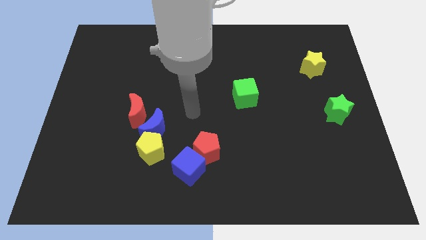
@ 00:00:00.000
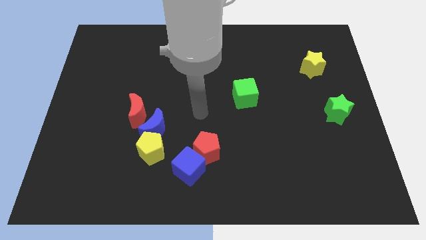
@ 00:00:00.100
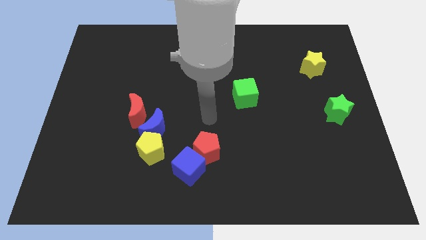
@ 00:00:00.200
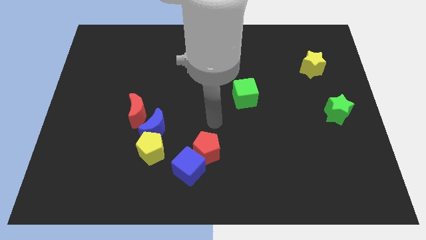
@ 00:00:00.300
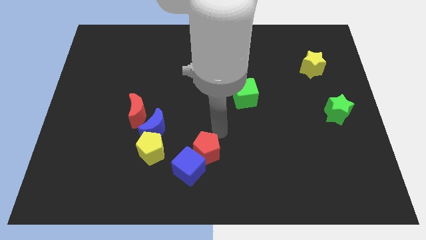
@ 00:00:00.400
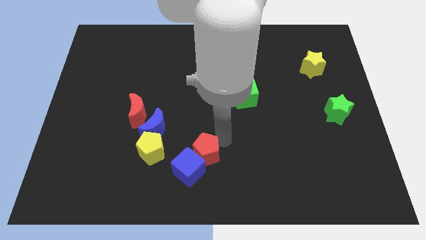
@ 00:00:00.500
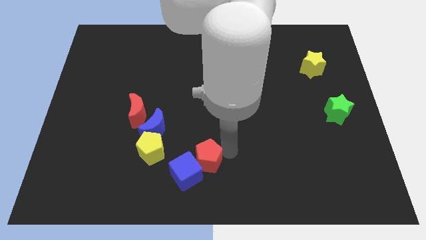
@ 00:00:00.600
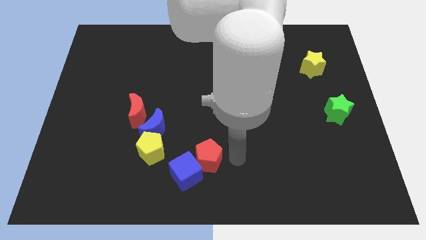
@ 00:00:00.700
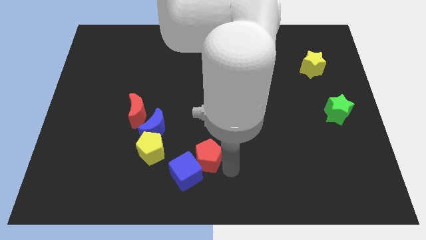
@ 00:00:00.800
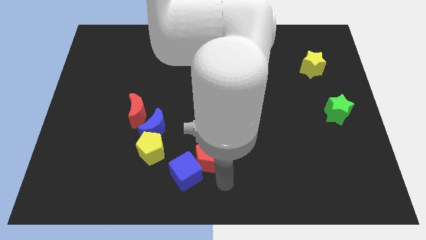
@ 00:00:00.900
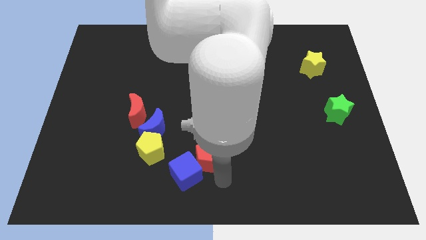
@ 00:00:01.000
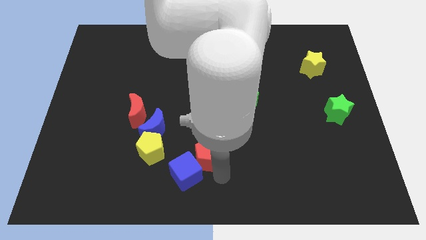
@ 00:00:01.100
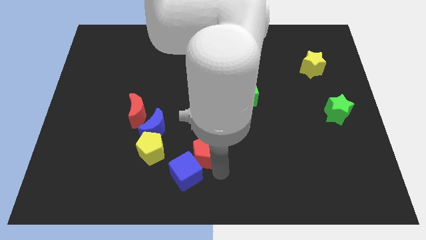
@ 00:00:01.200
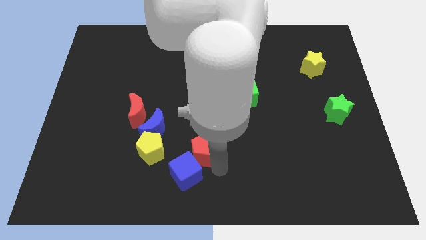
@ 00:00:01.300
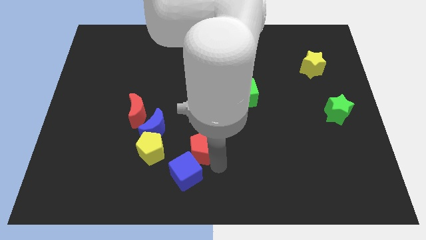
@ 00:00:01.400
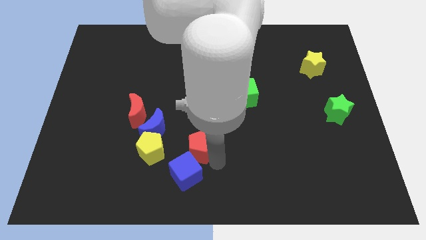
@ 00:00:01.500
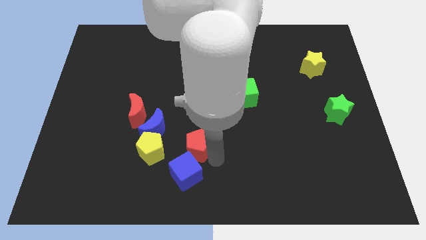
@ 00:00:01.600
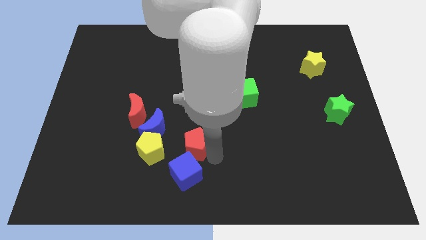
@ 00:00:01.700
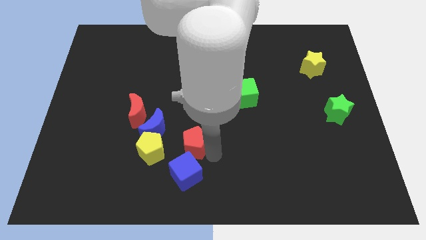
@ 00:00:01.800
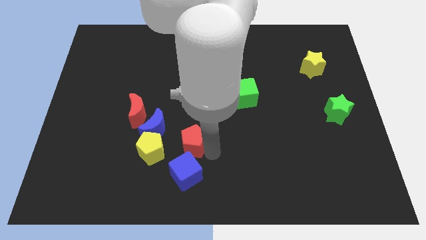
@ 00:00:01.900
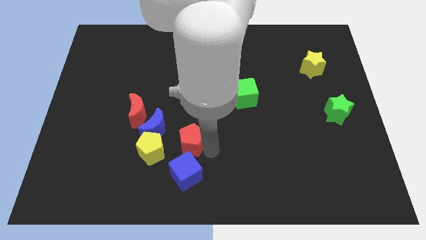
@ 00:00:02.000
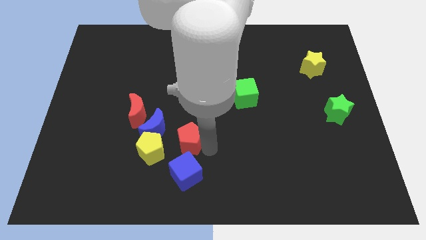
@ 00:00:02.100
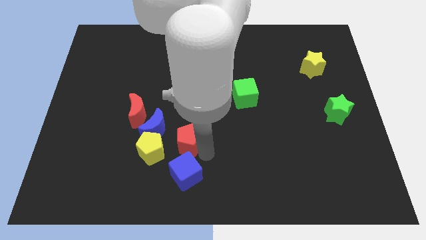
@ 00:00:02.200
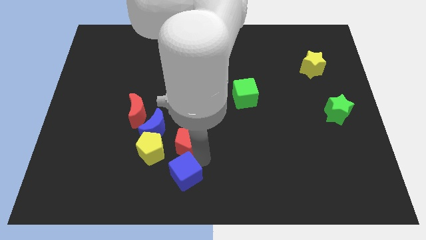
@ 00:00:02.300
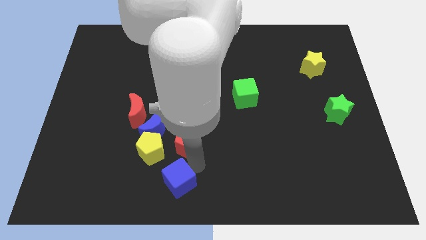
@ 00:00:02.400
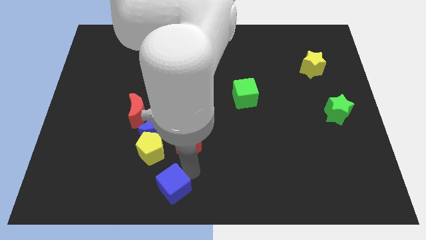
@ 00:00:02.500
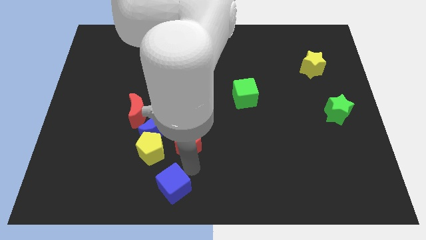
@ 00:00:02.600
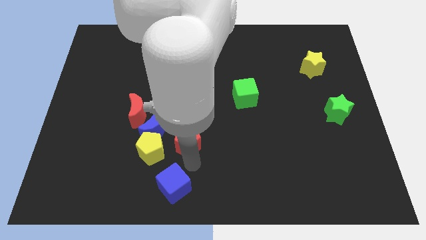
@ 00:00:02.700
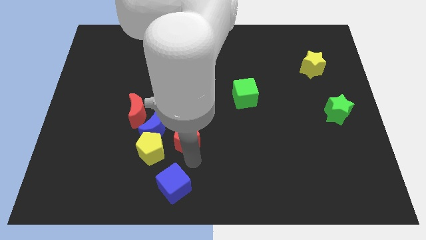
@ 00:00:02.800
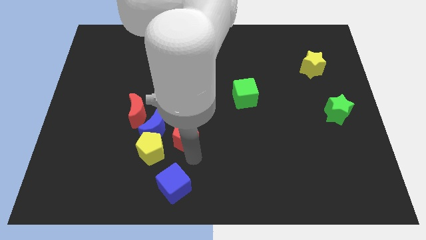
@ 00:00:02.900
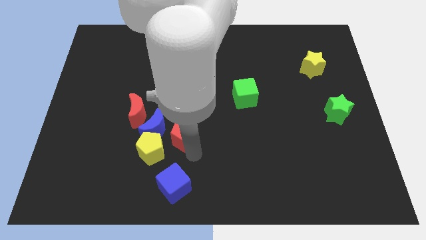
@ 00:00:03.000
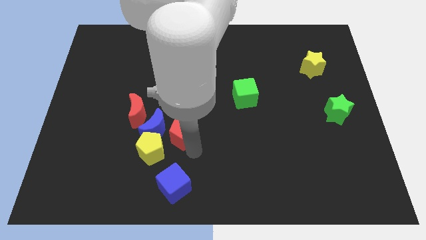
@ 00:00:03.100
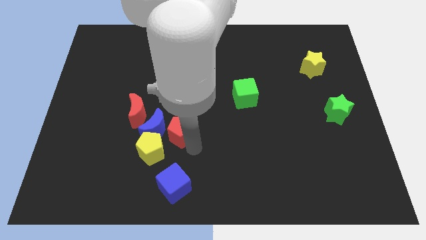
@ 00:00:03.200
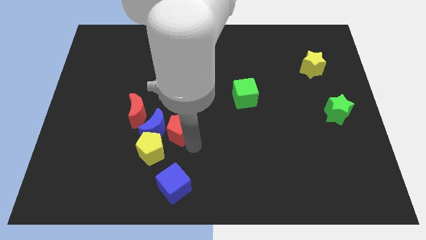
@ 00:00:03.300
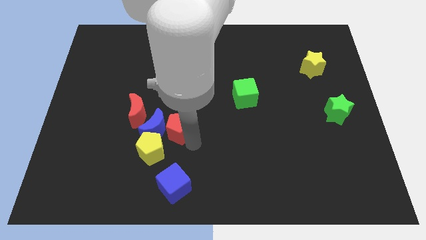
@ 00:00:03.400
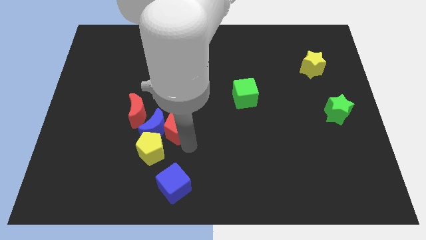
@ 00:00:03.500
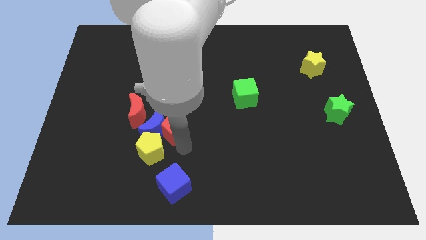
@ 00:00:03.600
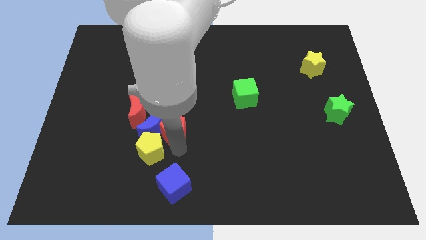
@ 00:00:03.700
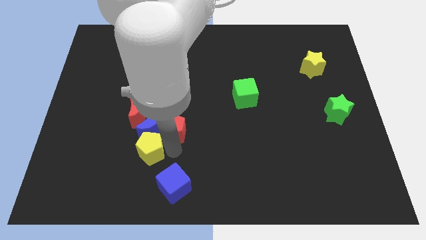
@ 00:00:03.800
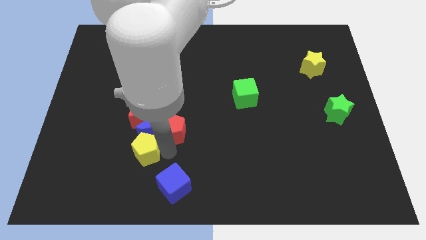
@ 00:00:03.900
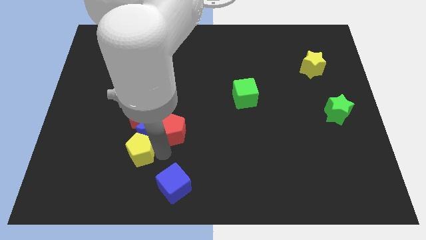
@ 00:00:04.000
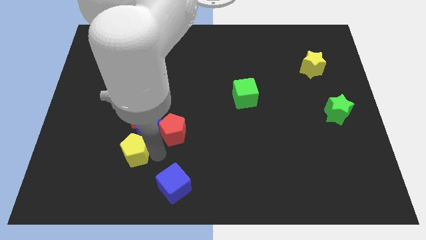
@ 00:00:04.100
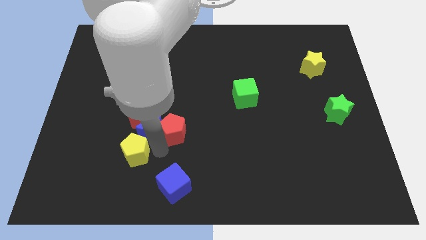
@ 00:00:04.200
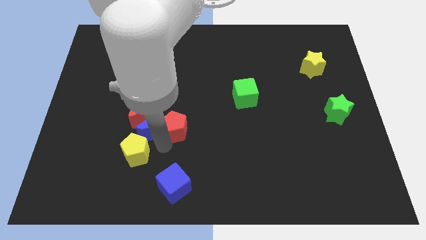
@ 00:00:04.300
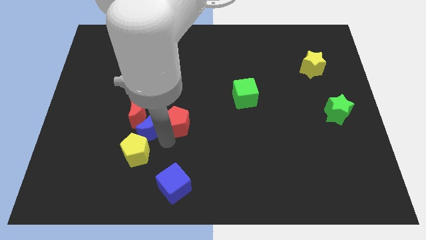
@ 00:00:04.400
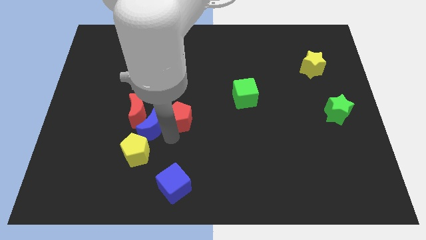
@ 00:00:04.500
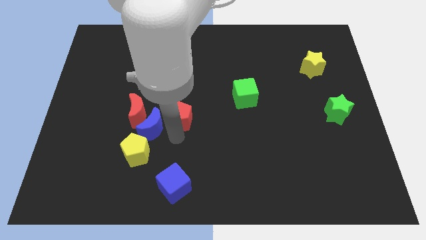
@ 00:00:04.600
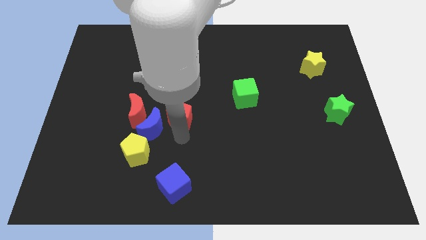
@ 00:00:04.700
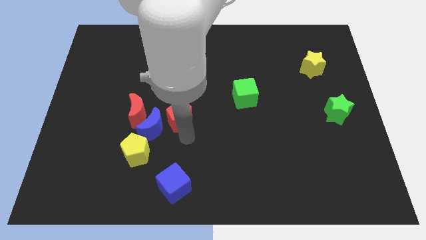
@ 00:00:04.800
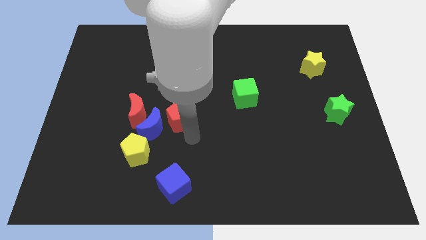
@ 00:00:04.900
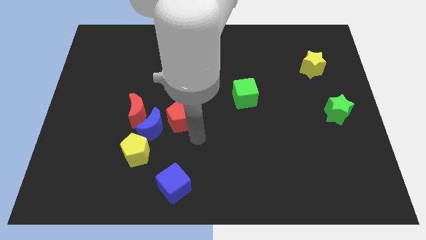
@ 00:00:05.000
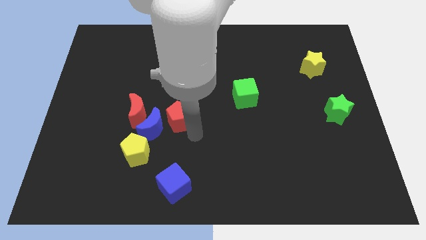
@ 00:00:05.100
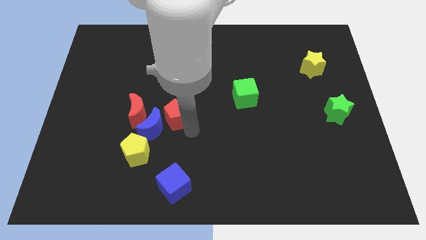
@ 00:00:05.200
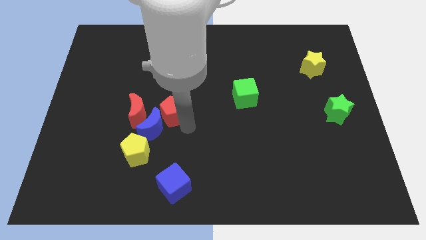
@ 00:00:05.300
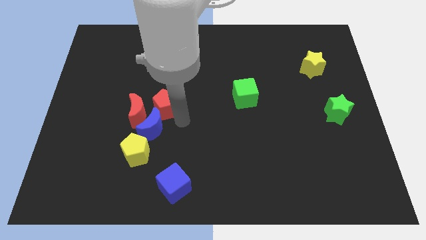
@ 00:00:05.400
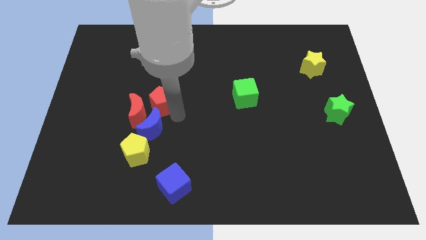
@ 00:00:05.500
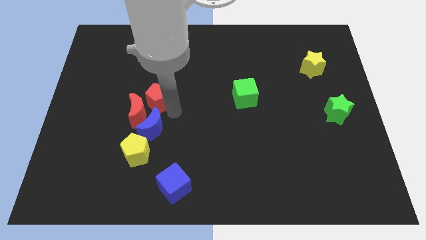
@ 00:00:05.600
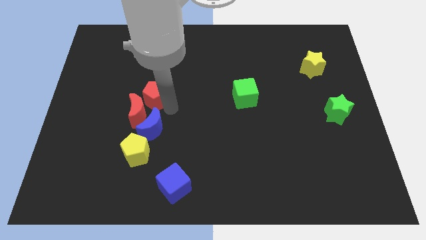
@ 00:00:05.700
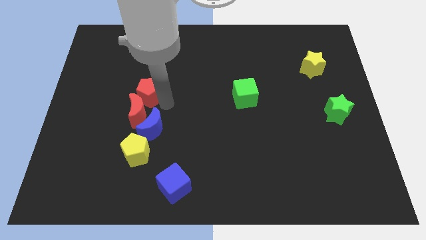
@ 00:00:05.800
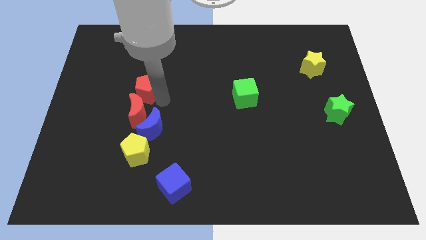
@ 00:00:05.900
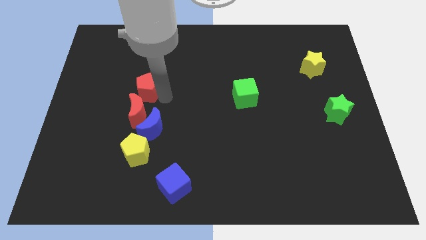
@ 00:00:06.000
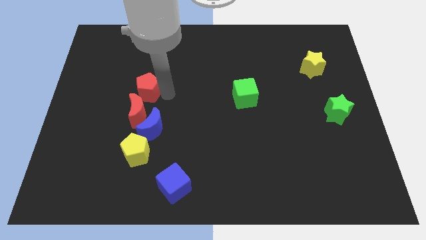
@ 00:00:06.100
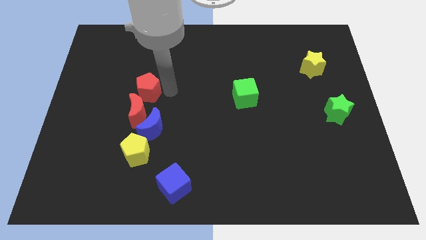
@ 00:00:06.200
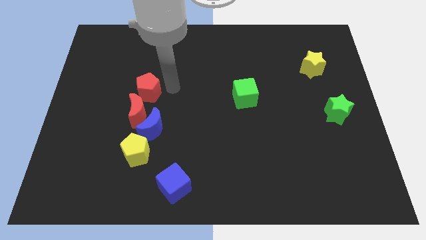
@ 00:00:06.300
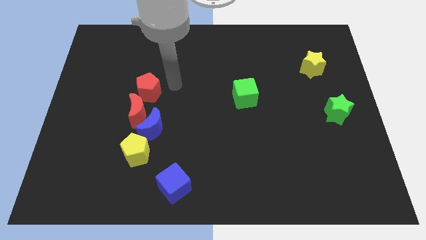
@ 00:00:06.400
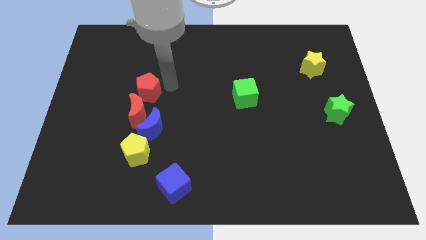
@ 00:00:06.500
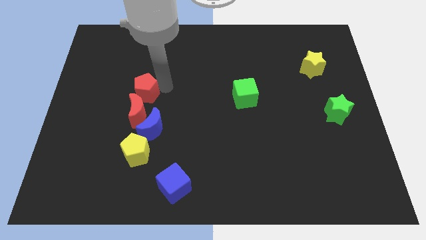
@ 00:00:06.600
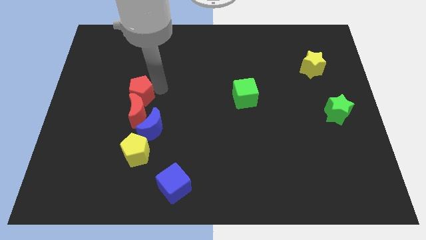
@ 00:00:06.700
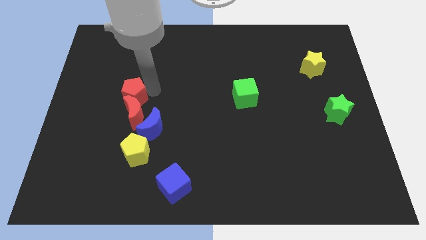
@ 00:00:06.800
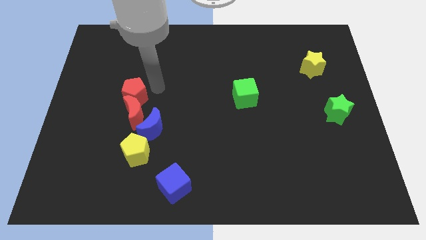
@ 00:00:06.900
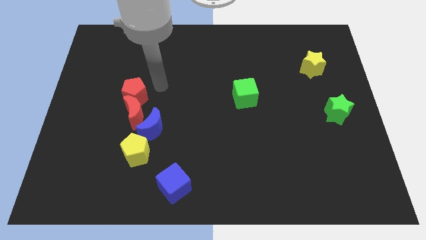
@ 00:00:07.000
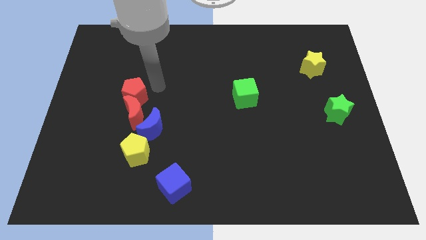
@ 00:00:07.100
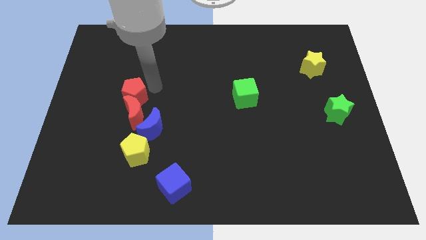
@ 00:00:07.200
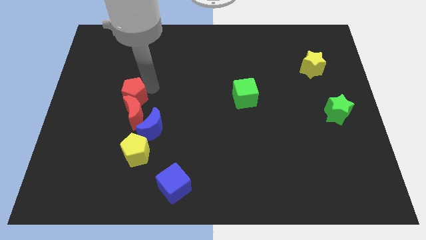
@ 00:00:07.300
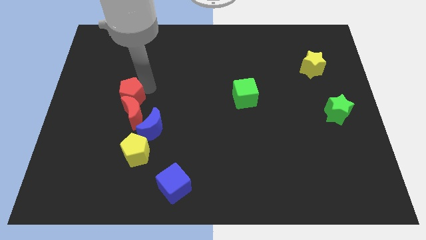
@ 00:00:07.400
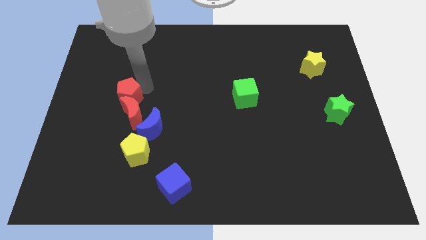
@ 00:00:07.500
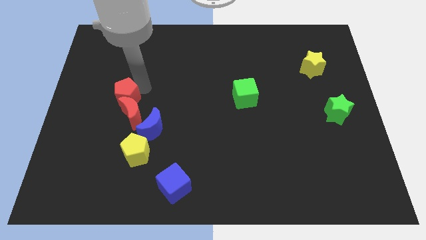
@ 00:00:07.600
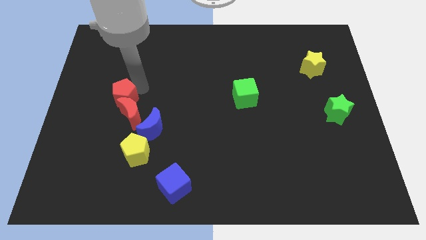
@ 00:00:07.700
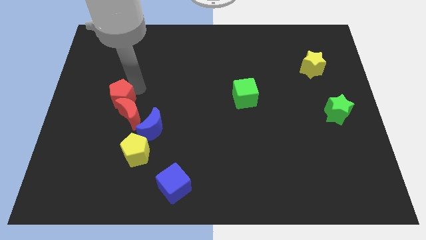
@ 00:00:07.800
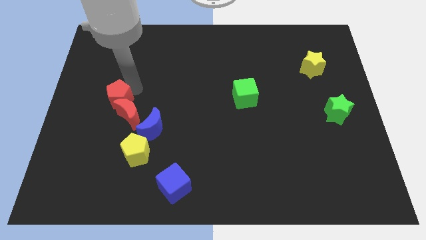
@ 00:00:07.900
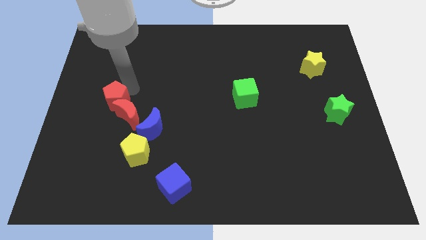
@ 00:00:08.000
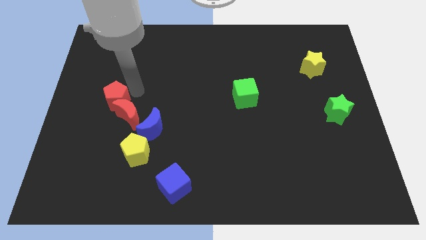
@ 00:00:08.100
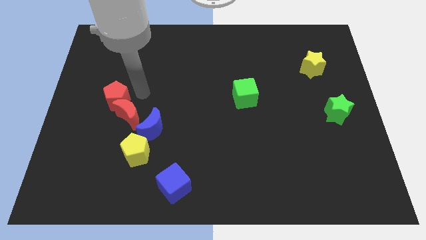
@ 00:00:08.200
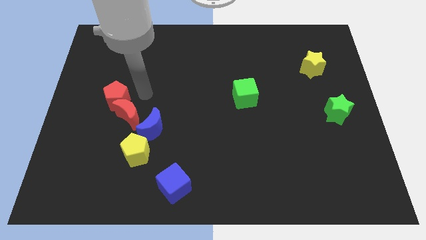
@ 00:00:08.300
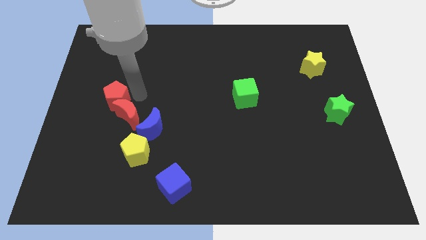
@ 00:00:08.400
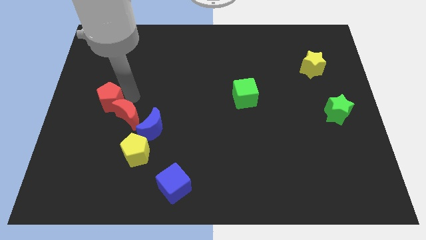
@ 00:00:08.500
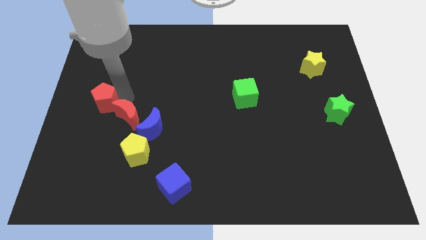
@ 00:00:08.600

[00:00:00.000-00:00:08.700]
slide the red pentagon to the center left
